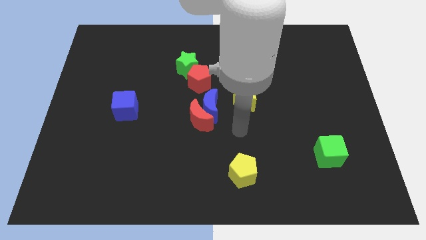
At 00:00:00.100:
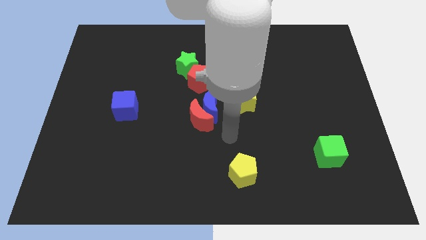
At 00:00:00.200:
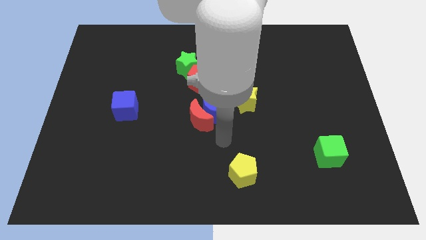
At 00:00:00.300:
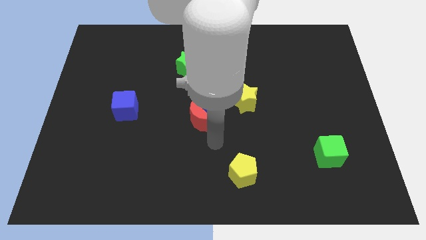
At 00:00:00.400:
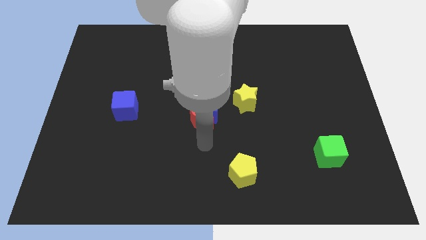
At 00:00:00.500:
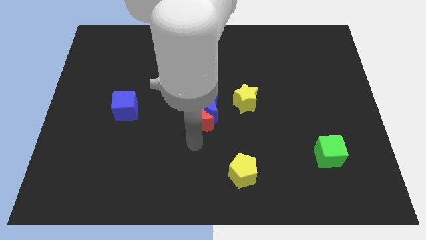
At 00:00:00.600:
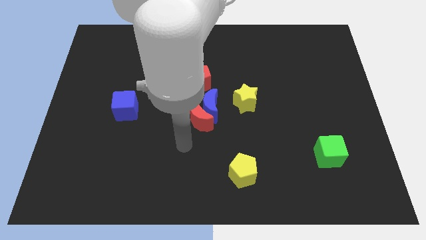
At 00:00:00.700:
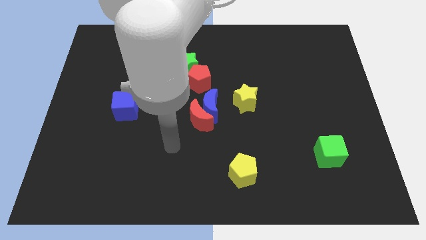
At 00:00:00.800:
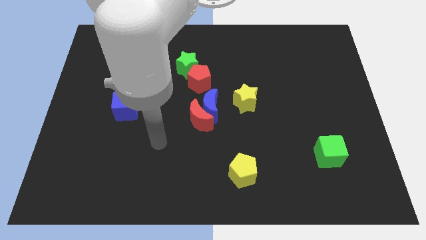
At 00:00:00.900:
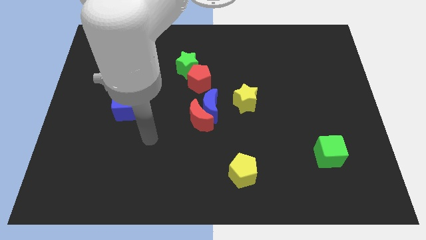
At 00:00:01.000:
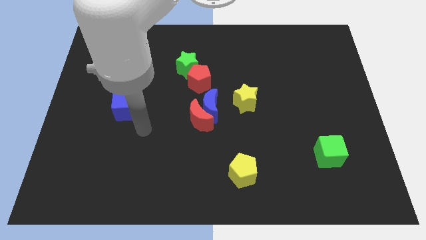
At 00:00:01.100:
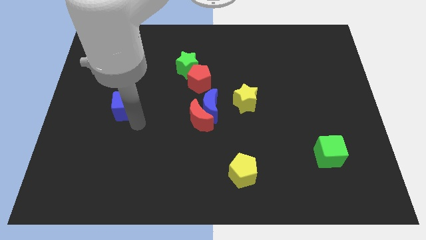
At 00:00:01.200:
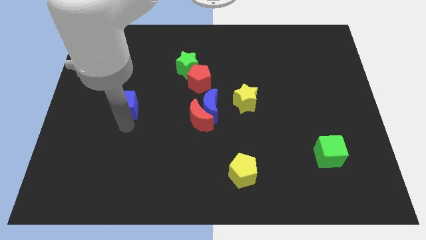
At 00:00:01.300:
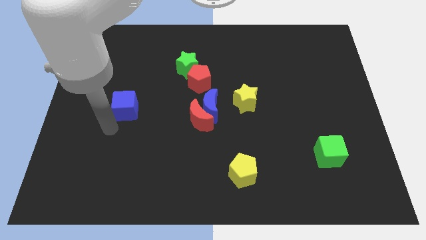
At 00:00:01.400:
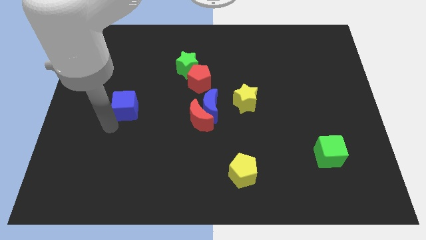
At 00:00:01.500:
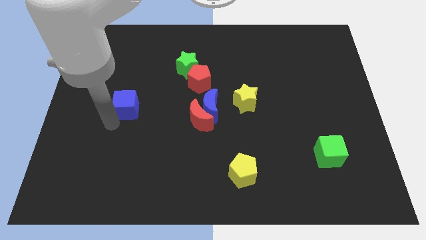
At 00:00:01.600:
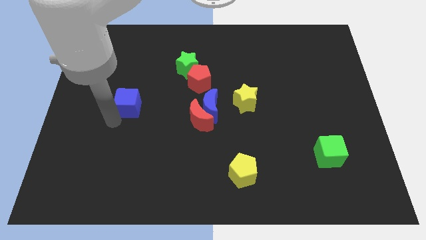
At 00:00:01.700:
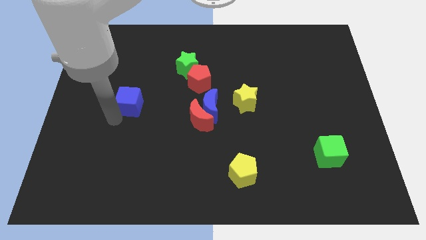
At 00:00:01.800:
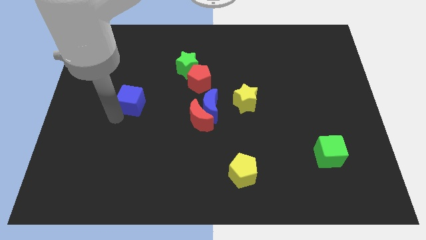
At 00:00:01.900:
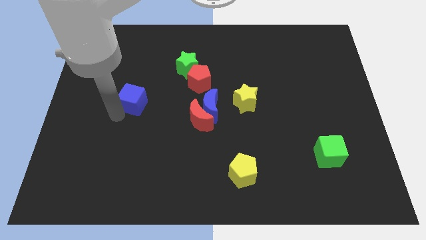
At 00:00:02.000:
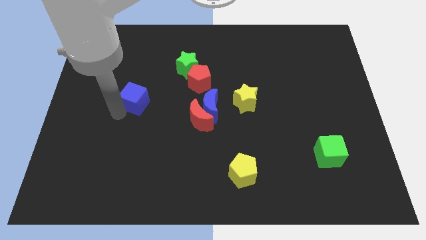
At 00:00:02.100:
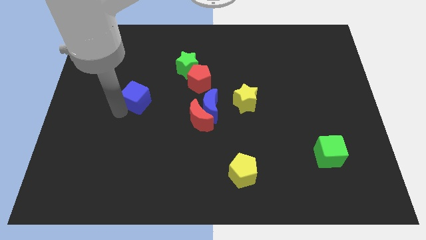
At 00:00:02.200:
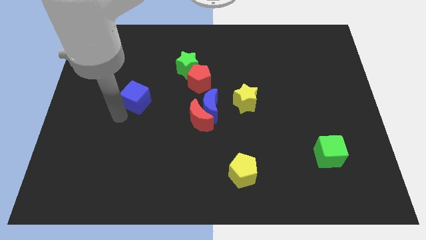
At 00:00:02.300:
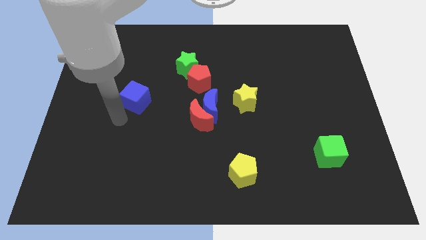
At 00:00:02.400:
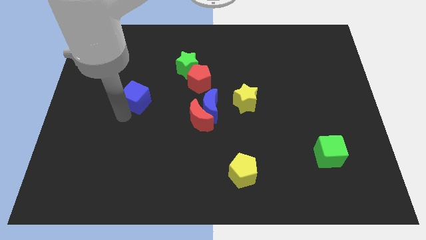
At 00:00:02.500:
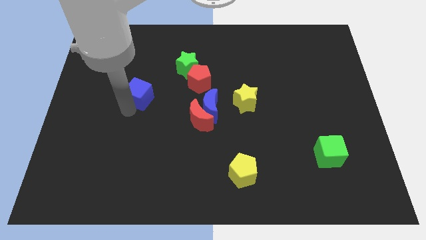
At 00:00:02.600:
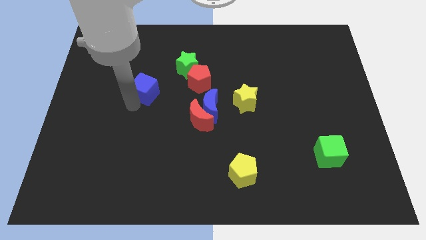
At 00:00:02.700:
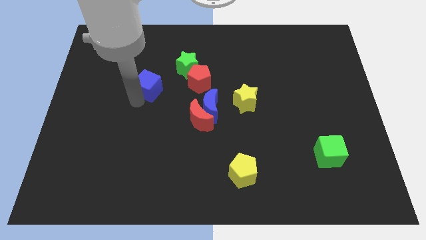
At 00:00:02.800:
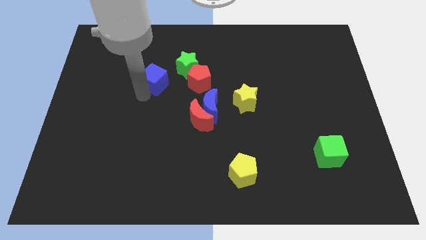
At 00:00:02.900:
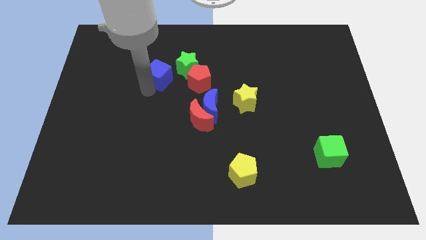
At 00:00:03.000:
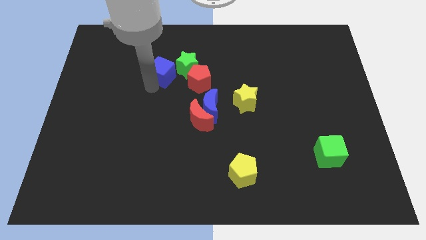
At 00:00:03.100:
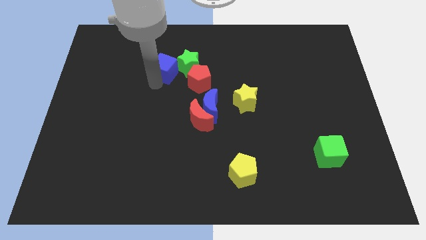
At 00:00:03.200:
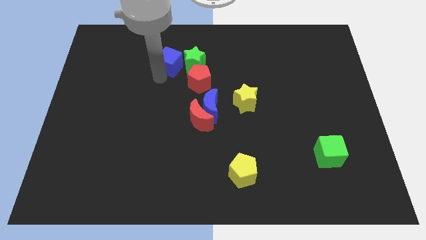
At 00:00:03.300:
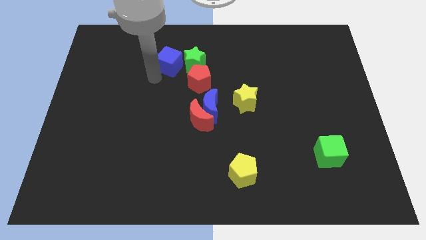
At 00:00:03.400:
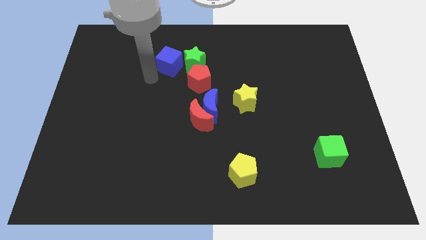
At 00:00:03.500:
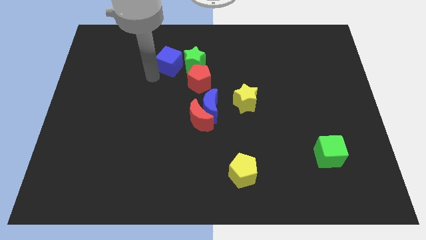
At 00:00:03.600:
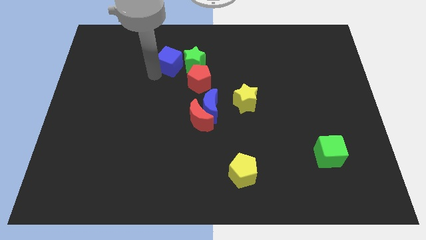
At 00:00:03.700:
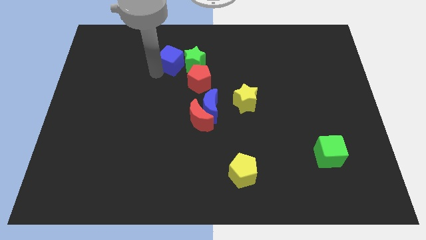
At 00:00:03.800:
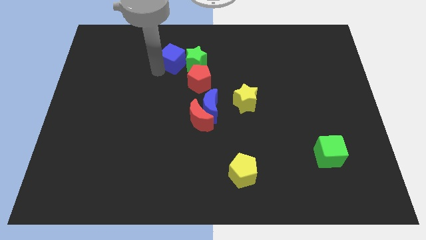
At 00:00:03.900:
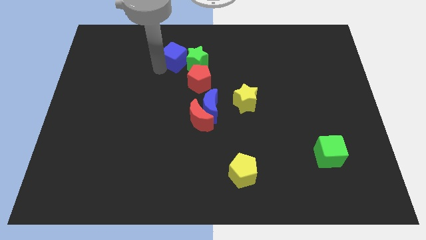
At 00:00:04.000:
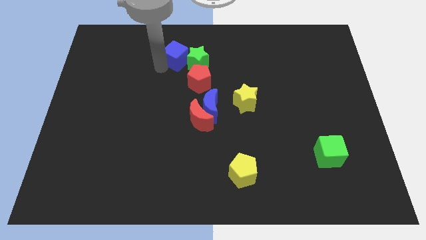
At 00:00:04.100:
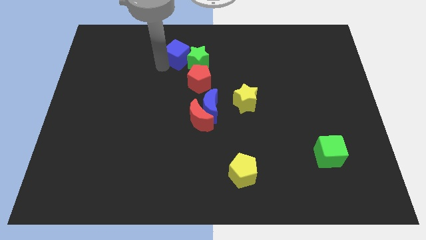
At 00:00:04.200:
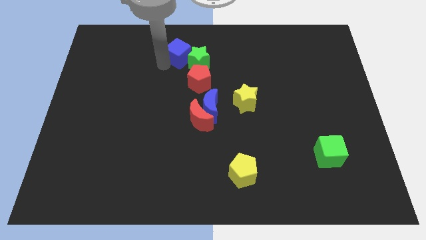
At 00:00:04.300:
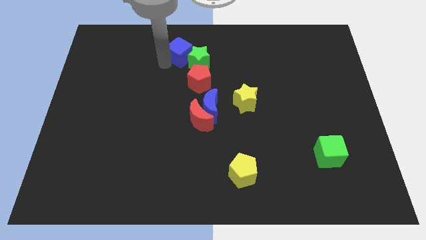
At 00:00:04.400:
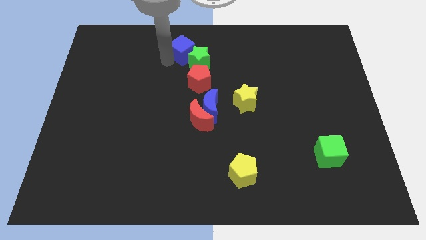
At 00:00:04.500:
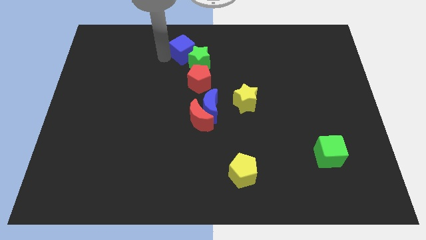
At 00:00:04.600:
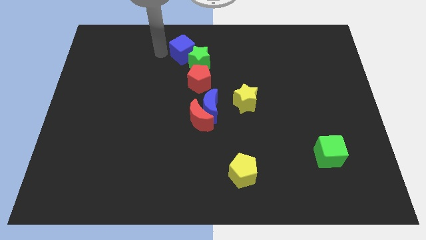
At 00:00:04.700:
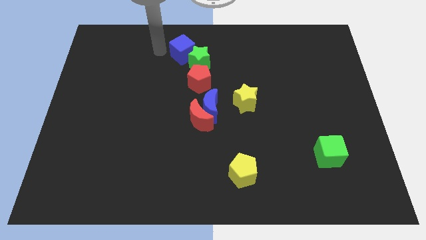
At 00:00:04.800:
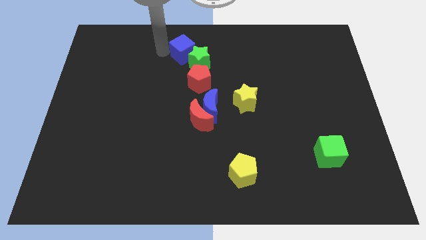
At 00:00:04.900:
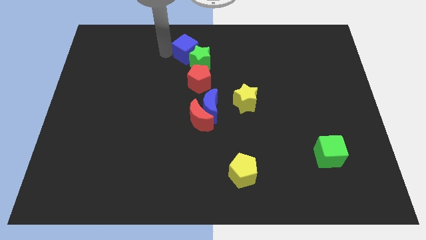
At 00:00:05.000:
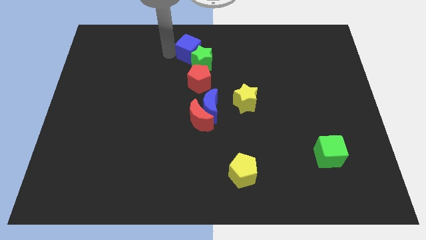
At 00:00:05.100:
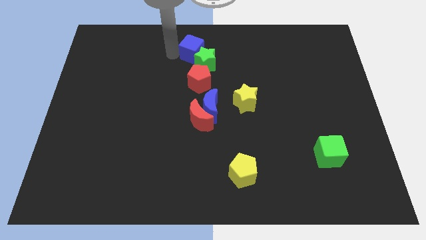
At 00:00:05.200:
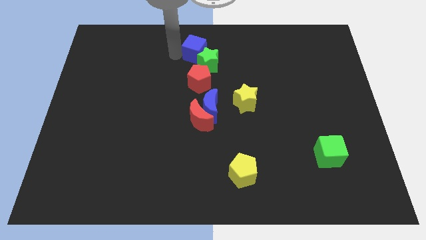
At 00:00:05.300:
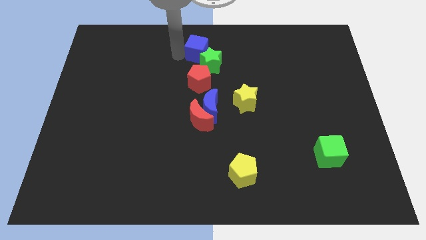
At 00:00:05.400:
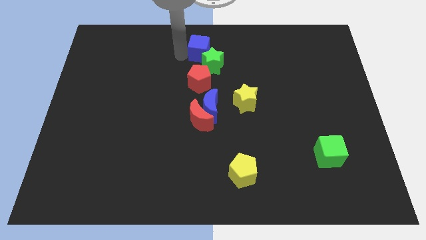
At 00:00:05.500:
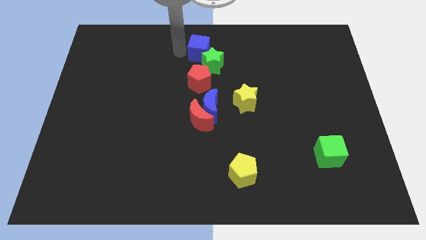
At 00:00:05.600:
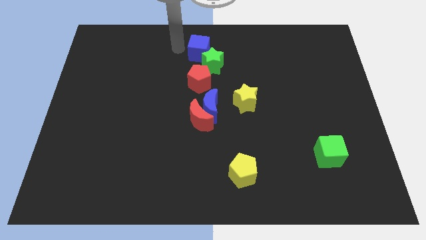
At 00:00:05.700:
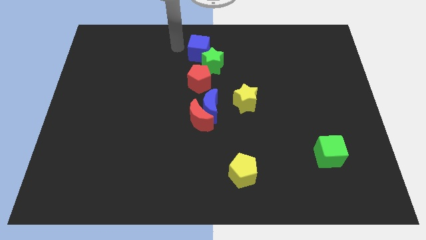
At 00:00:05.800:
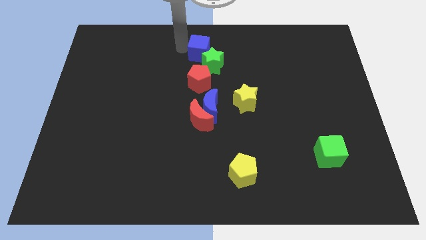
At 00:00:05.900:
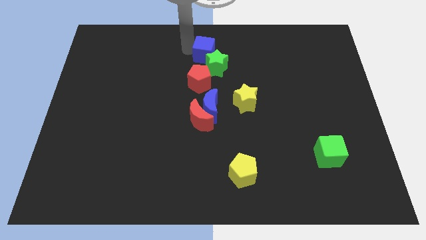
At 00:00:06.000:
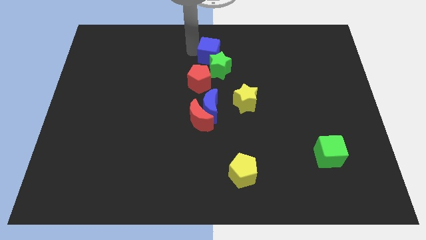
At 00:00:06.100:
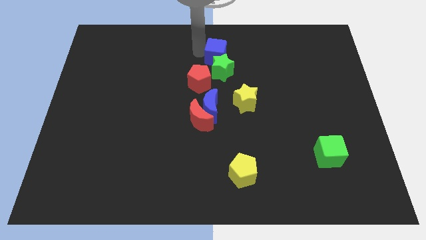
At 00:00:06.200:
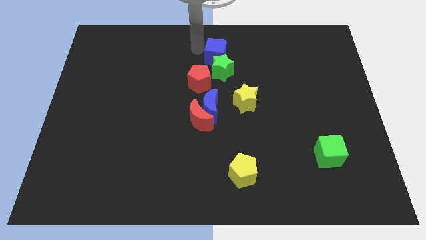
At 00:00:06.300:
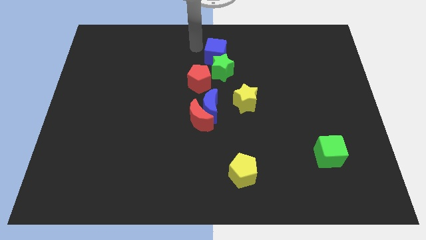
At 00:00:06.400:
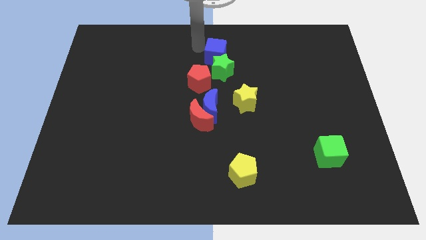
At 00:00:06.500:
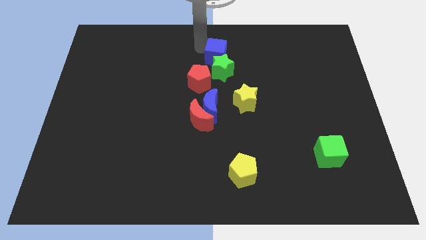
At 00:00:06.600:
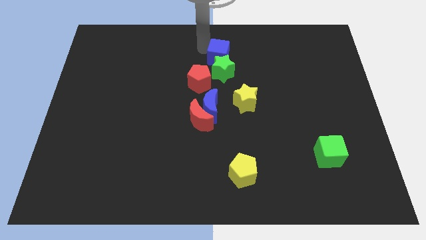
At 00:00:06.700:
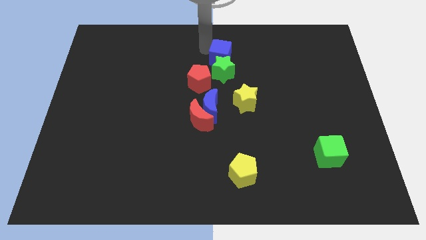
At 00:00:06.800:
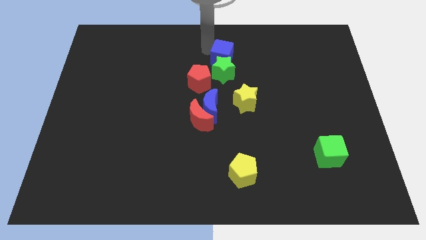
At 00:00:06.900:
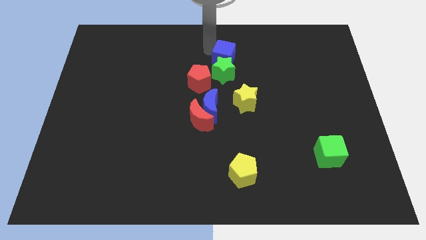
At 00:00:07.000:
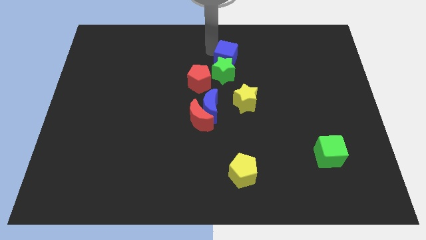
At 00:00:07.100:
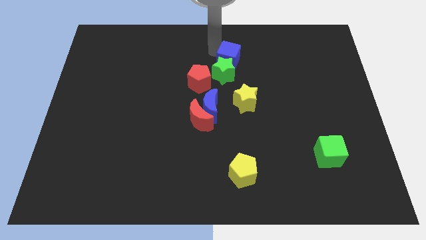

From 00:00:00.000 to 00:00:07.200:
move the blue cube above the yellow star
